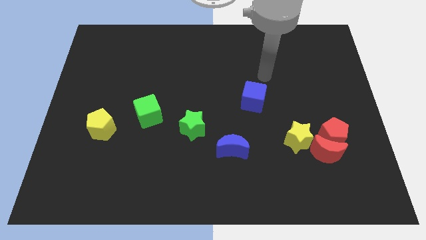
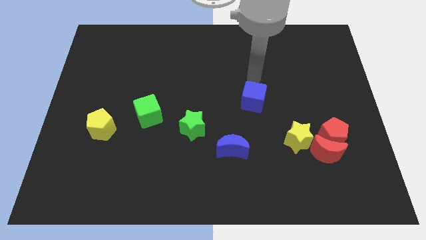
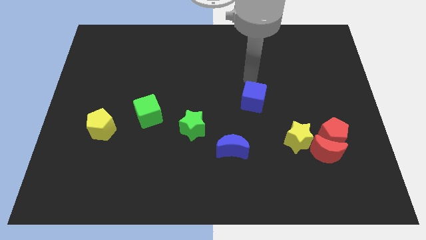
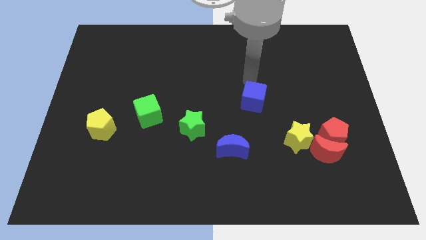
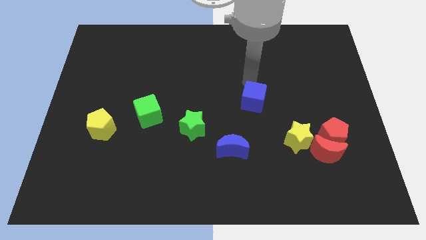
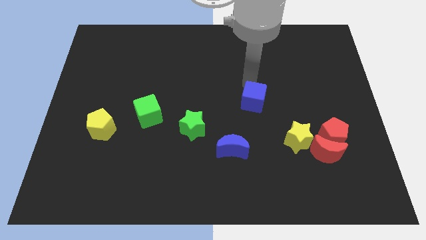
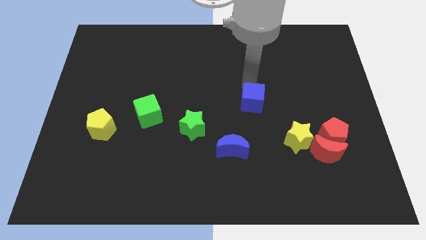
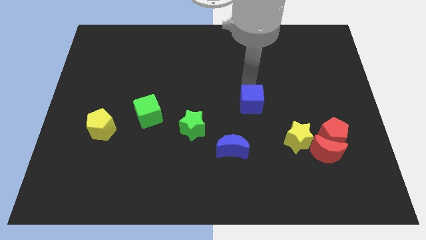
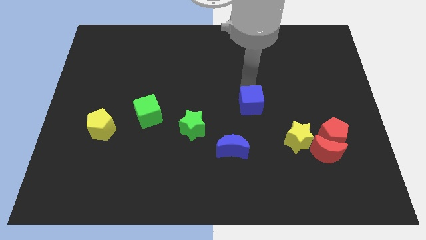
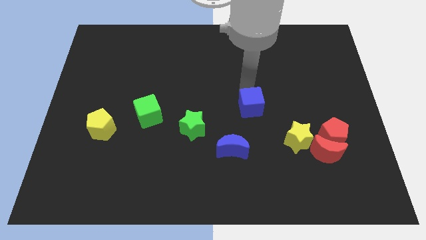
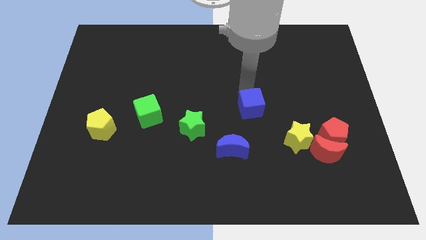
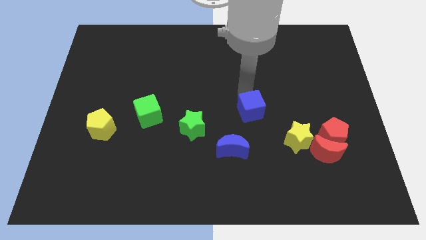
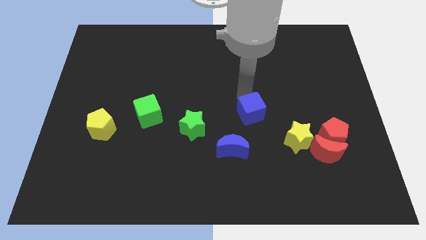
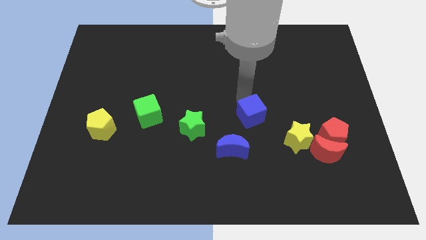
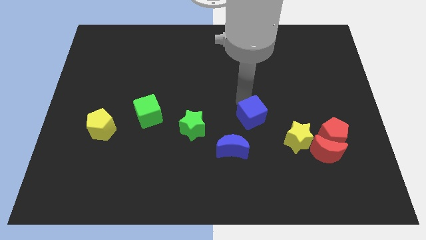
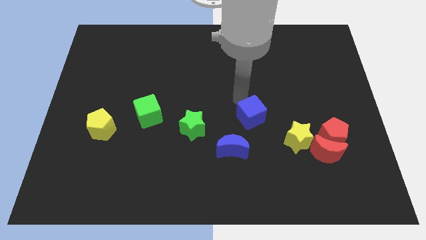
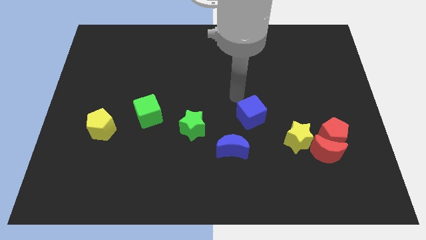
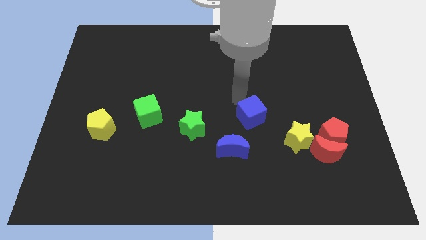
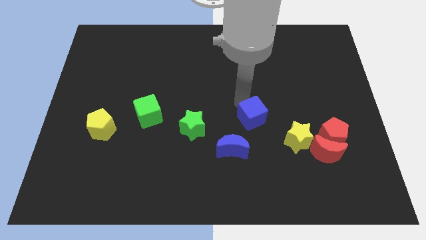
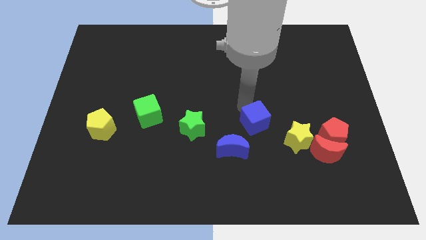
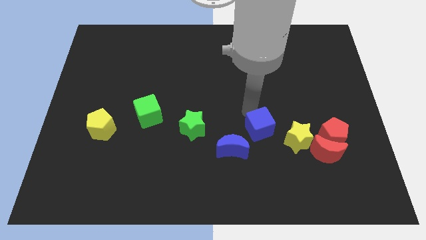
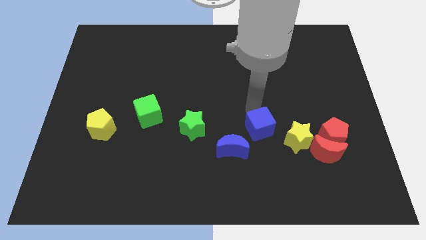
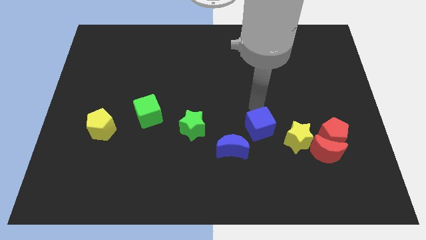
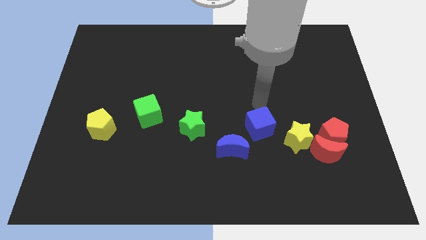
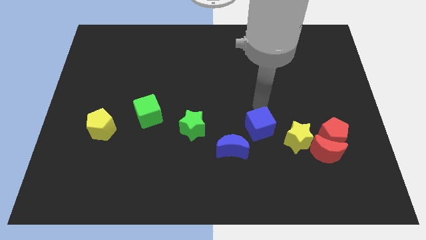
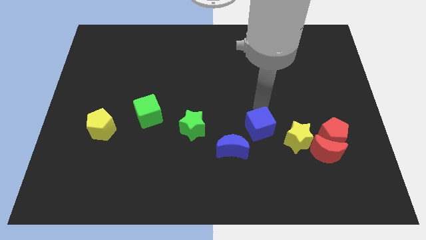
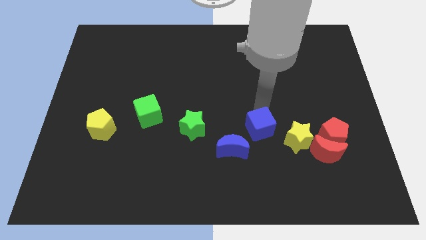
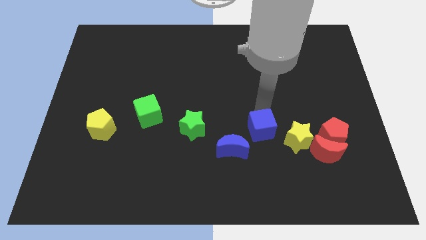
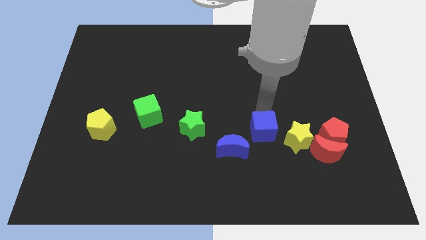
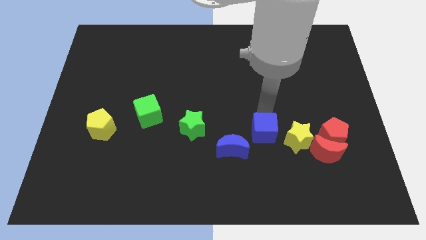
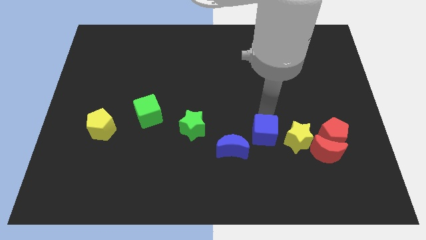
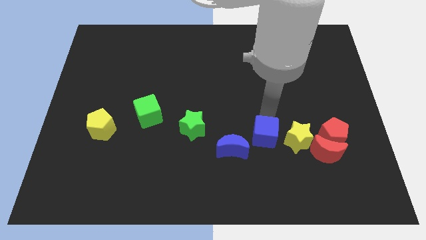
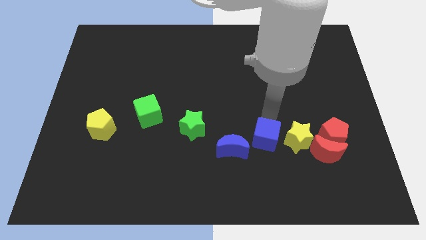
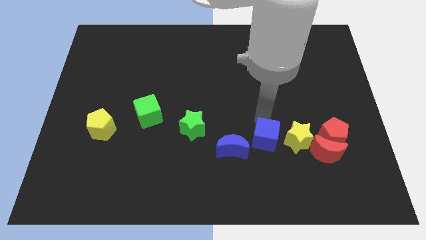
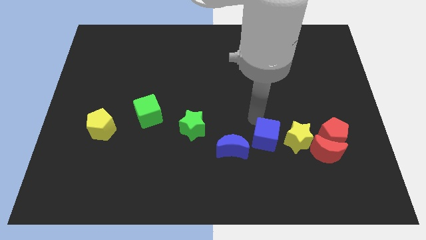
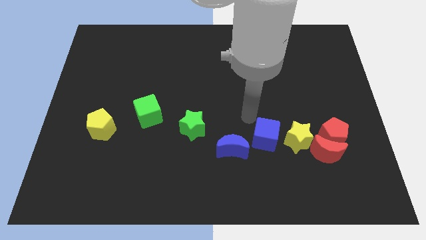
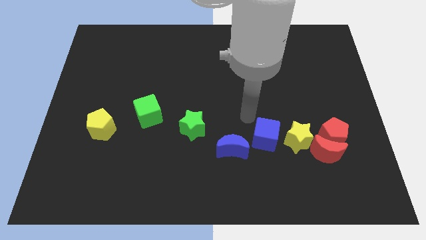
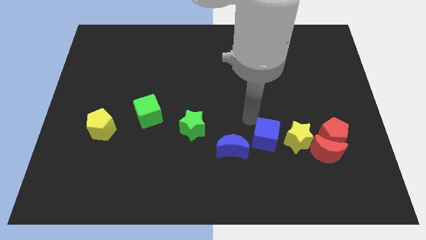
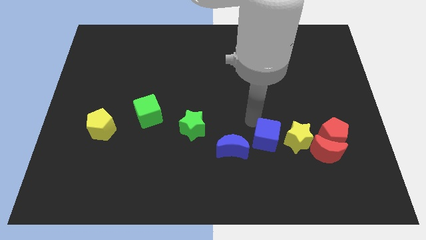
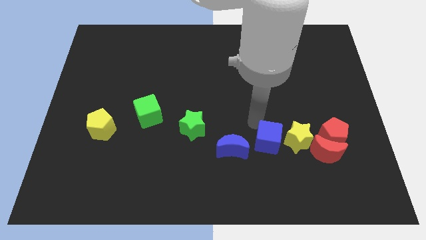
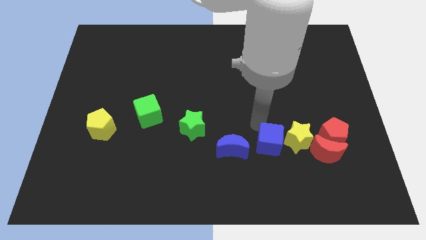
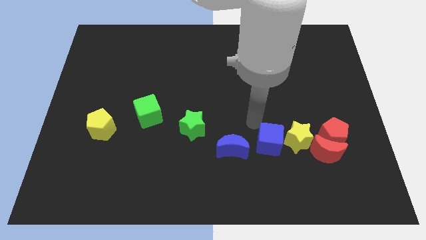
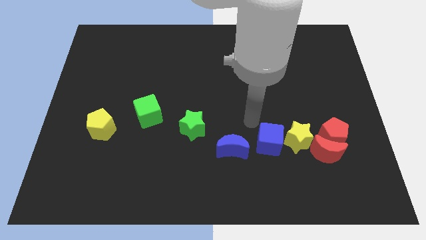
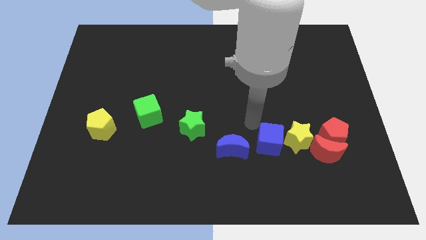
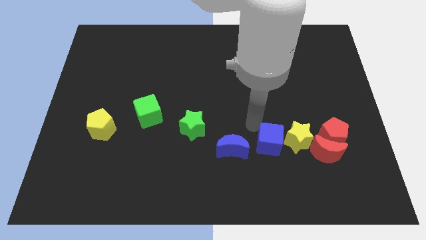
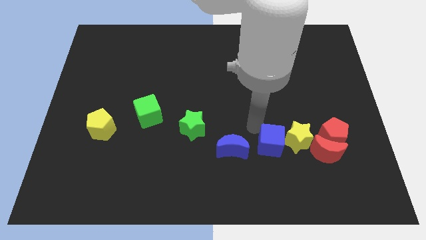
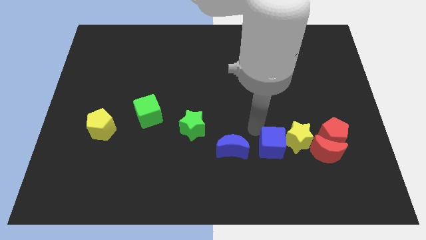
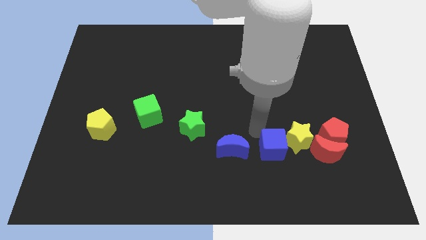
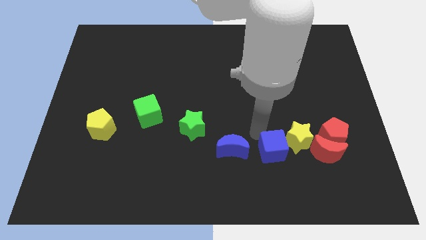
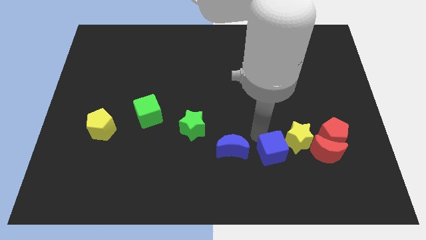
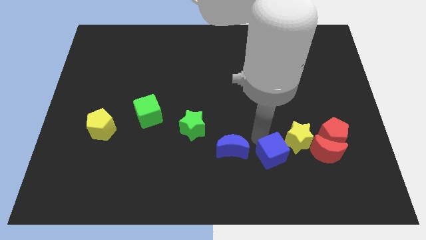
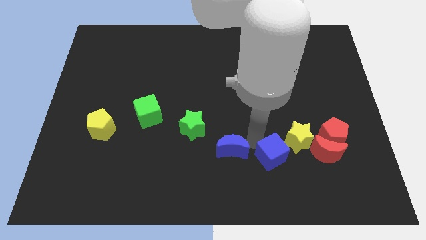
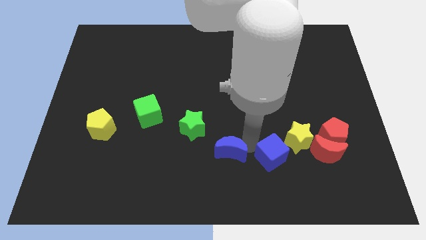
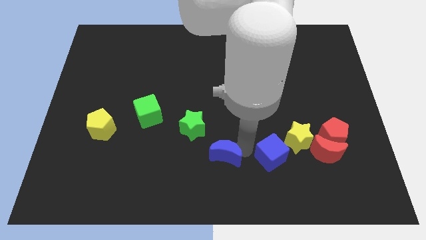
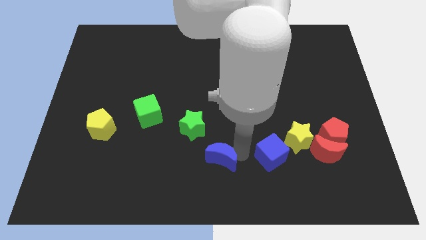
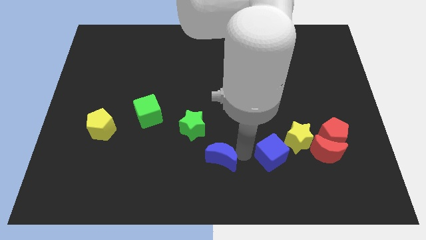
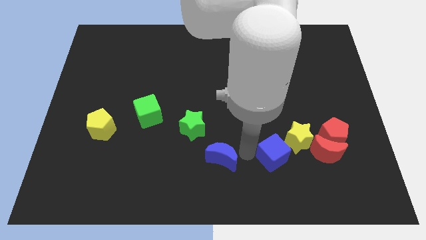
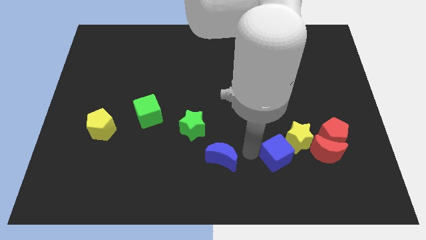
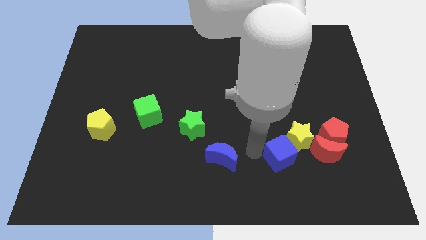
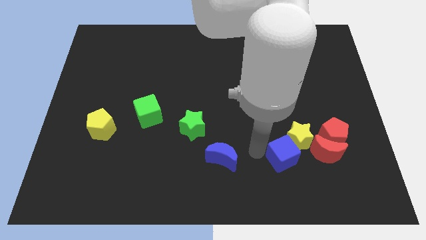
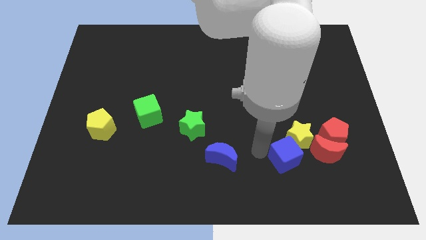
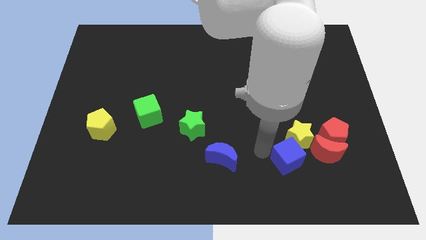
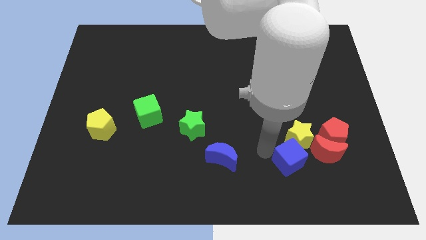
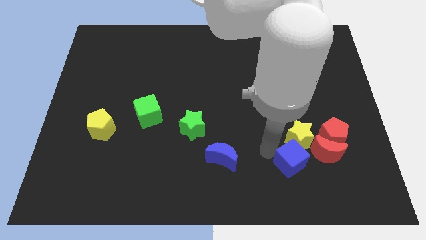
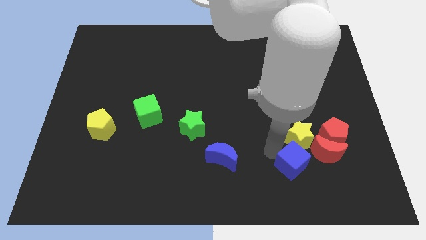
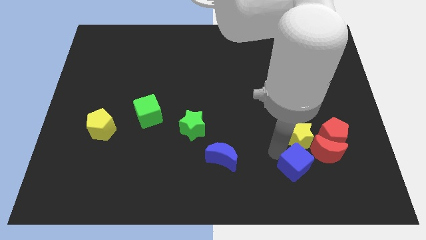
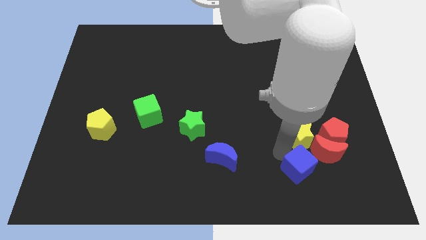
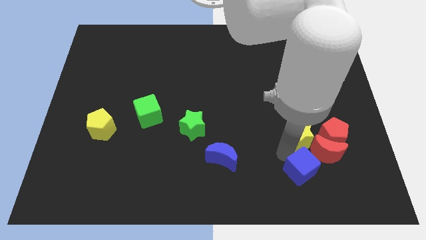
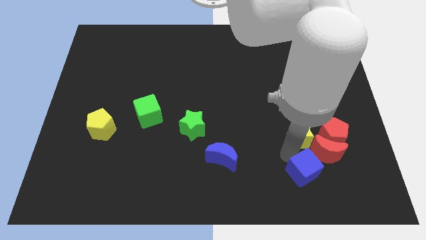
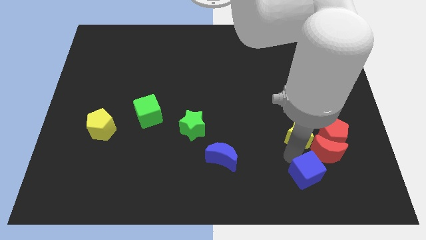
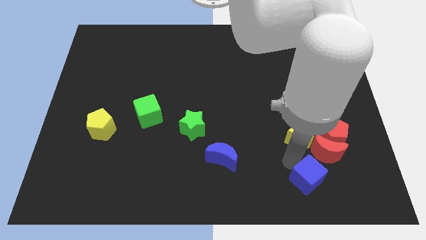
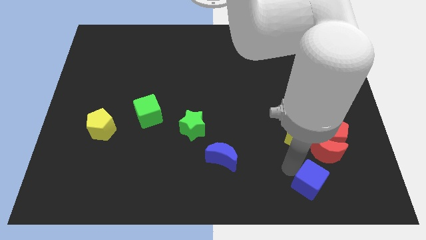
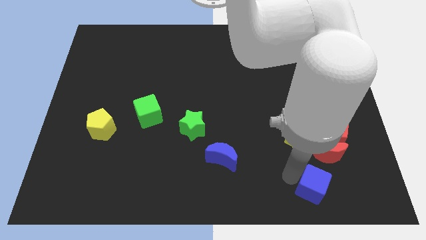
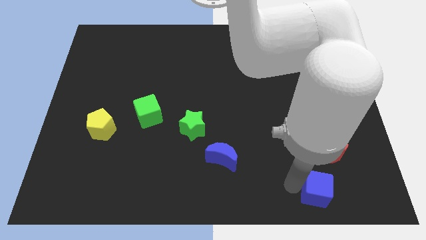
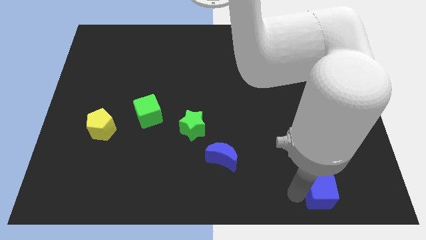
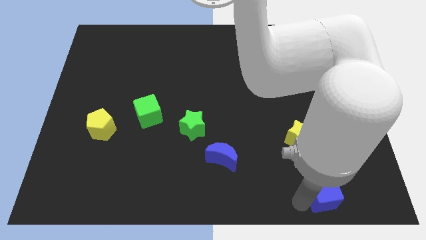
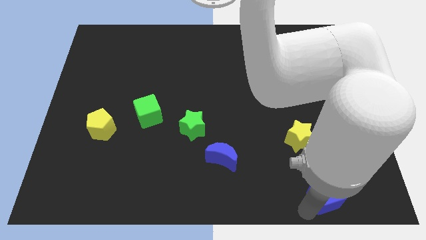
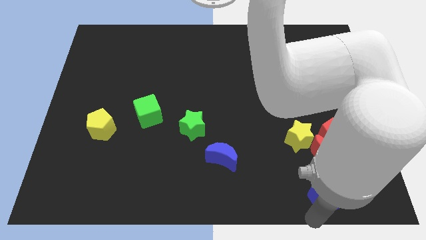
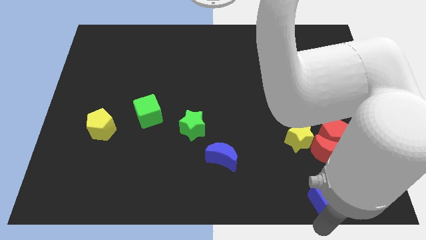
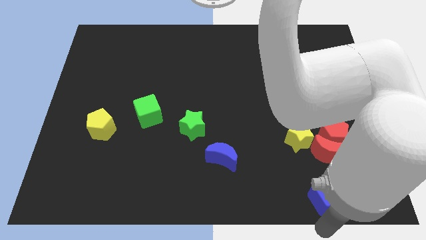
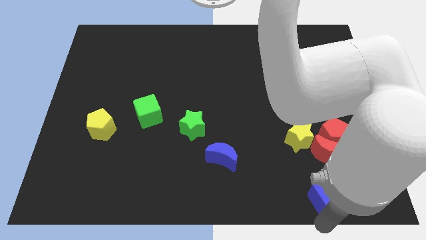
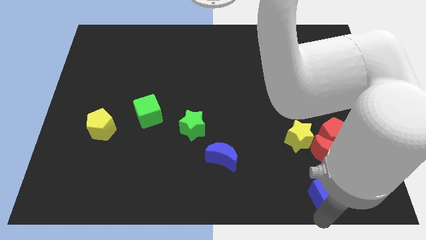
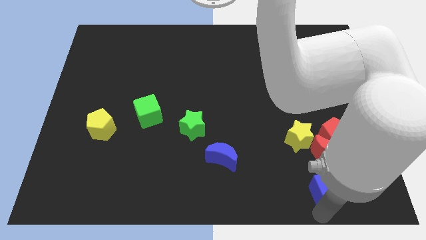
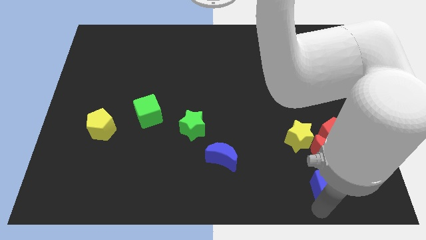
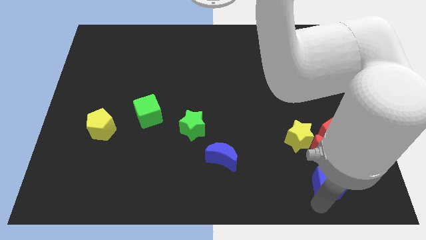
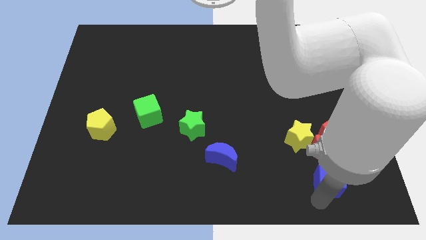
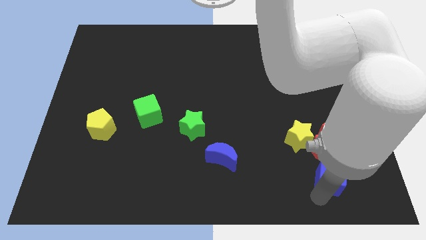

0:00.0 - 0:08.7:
put the blue cube next to the red moon
